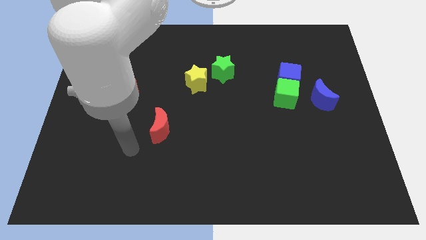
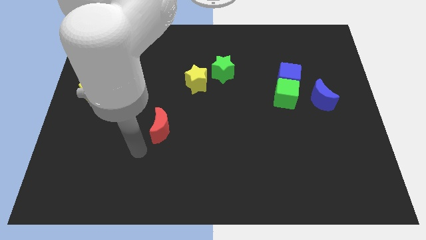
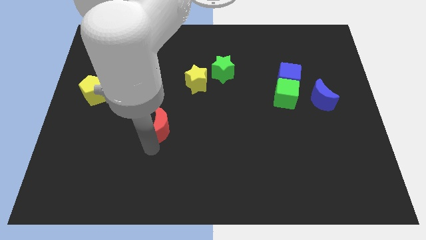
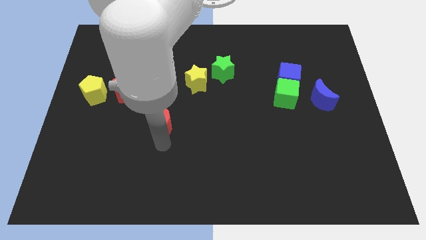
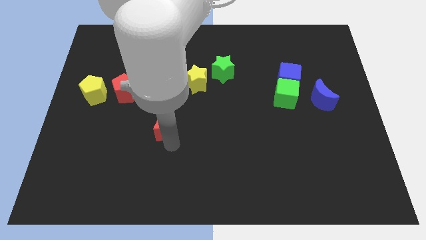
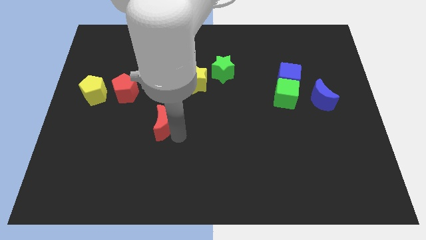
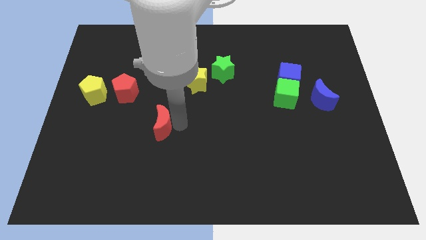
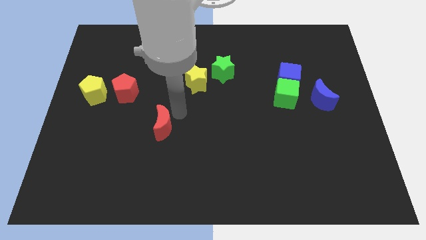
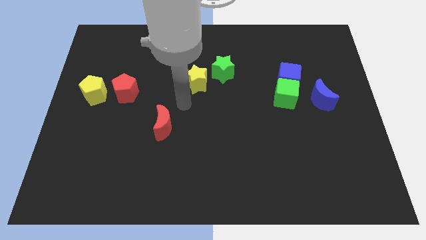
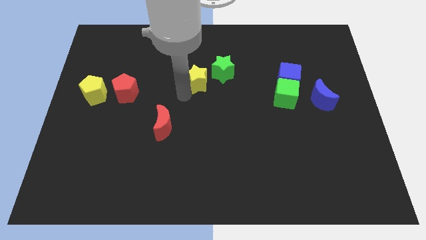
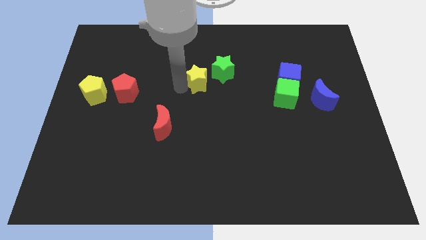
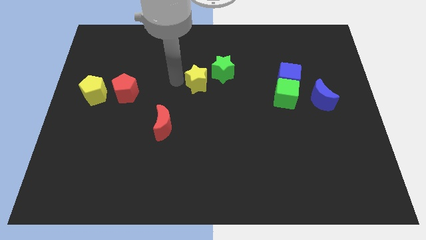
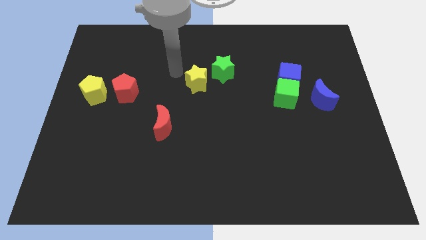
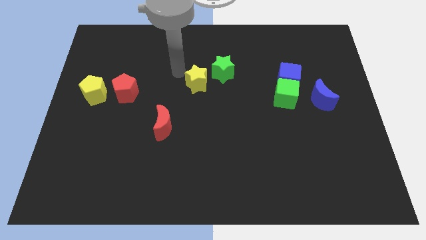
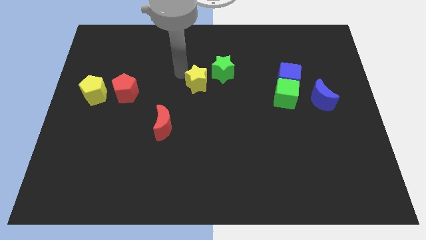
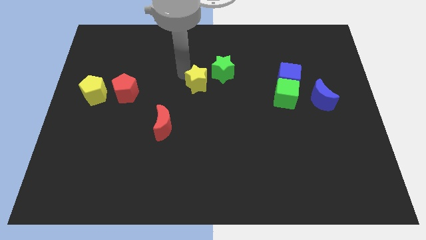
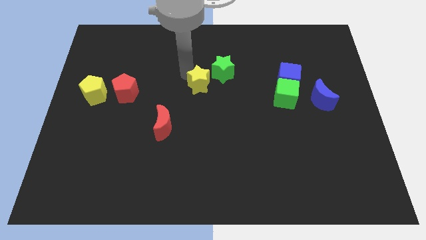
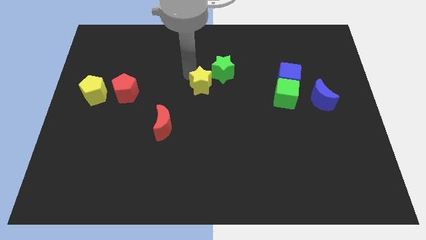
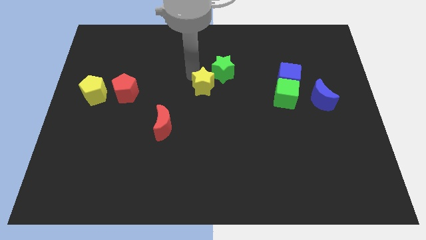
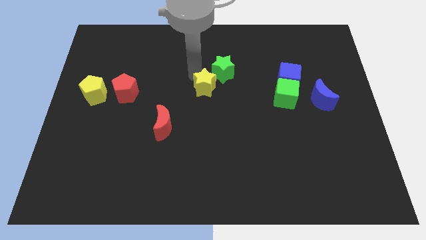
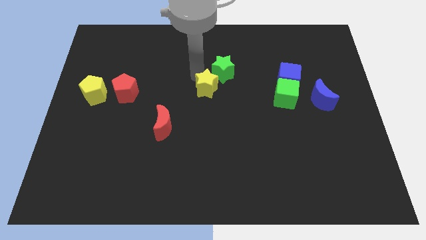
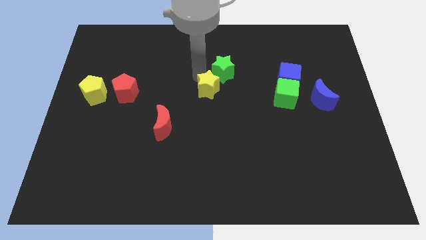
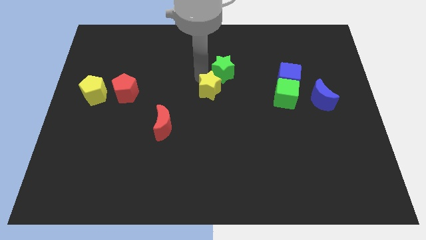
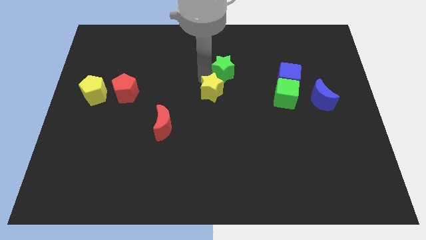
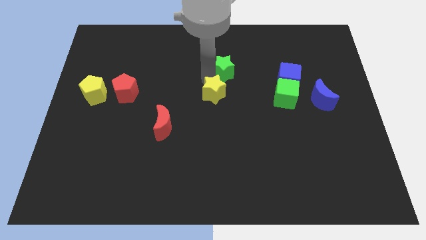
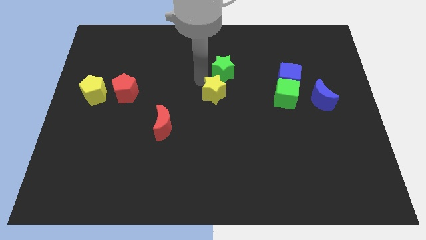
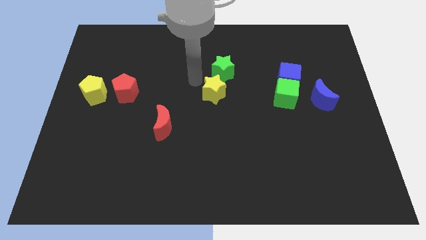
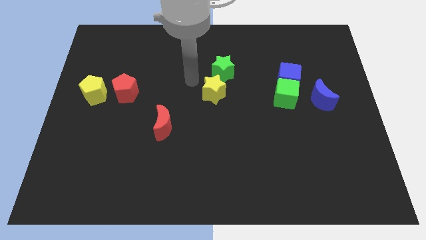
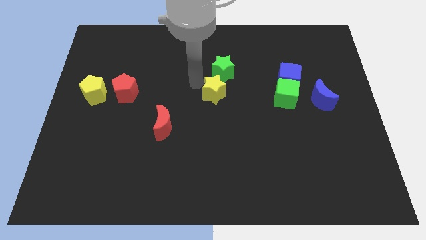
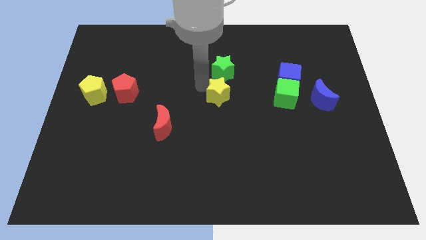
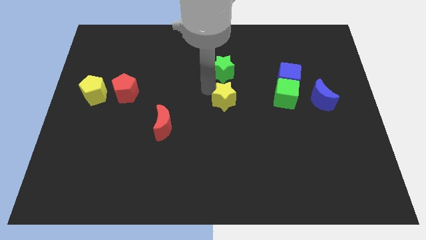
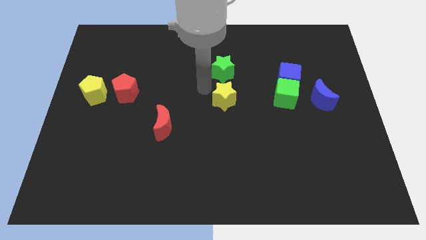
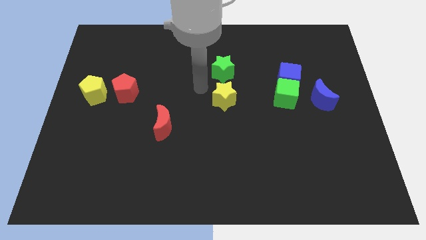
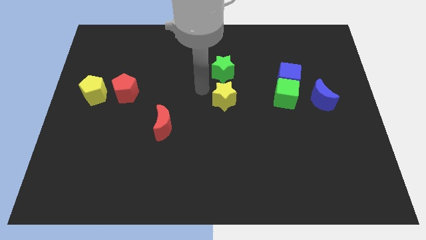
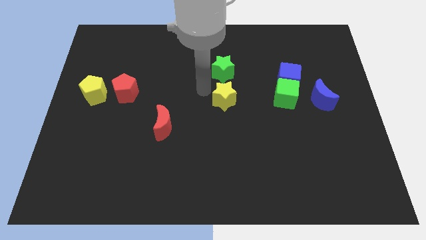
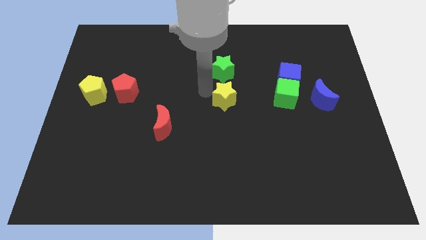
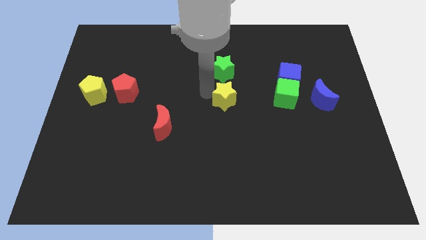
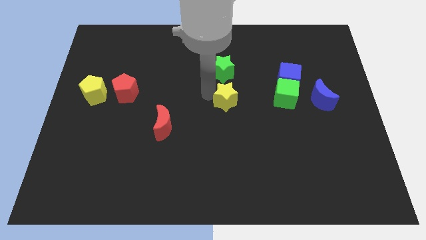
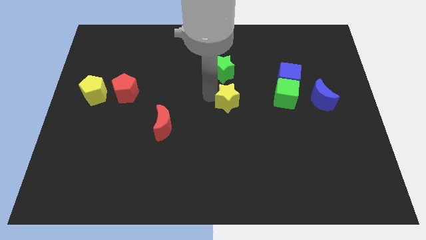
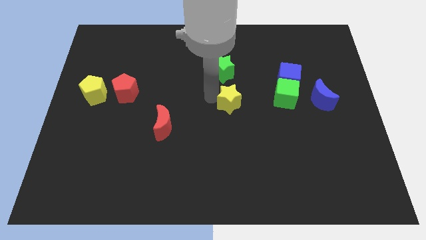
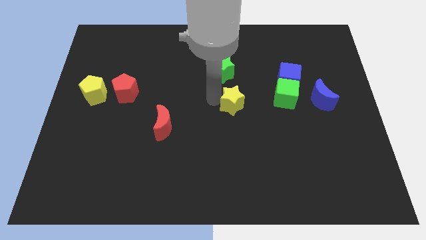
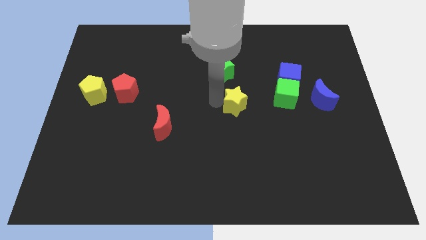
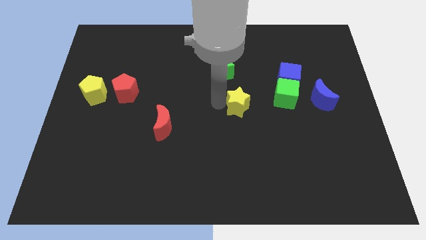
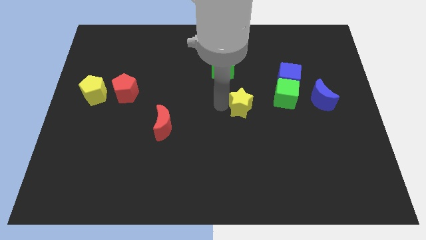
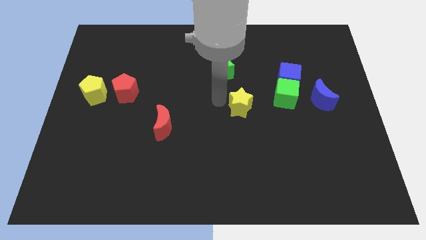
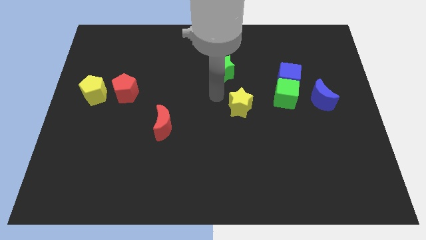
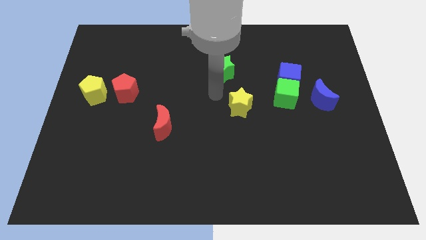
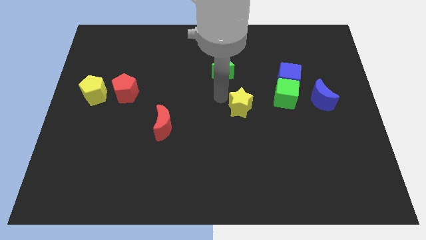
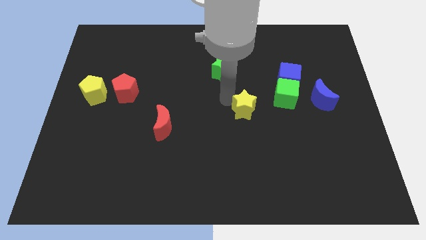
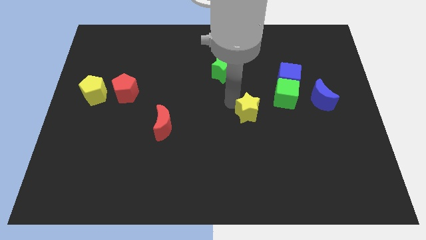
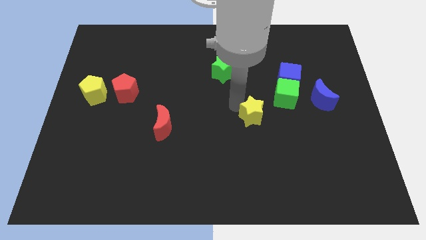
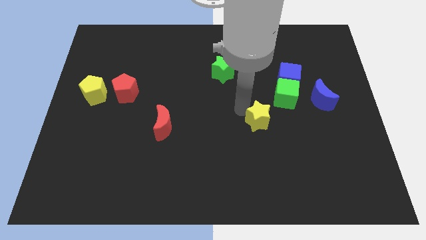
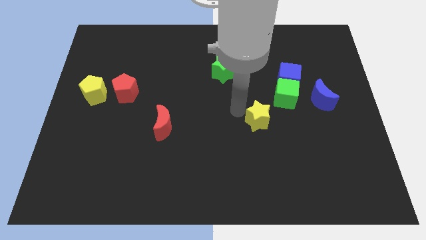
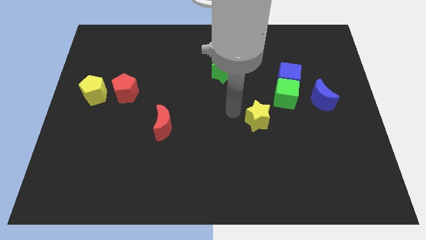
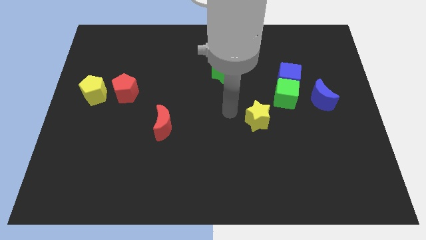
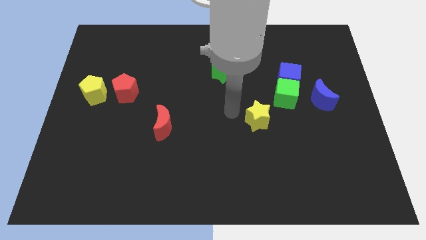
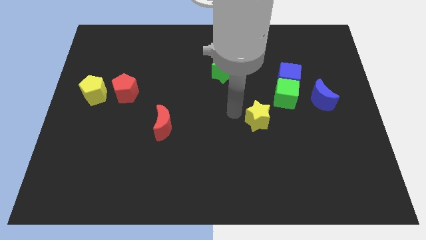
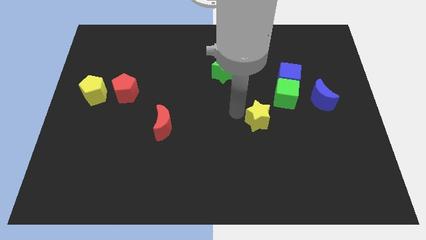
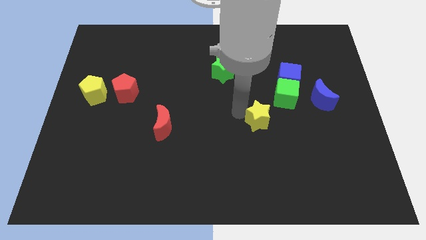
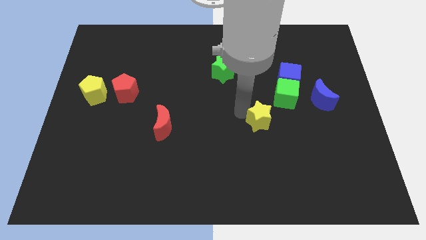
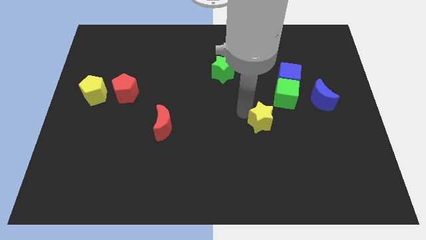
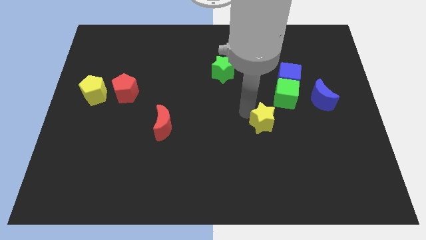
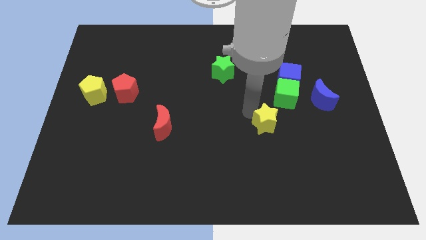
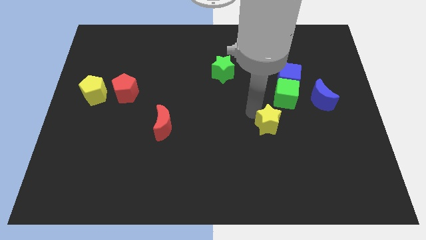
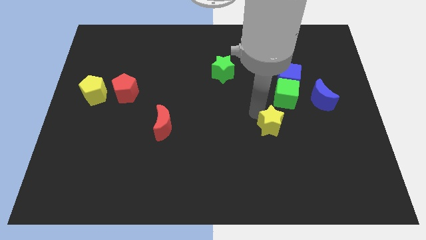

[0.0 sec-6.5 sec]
put the yellow star below the green cube
